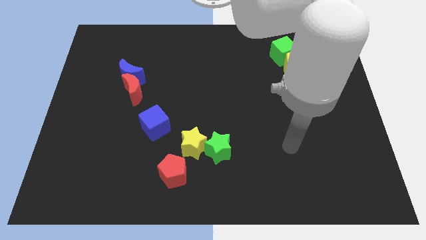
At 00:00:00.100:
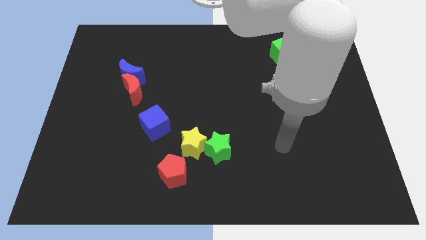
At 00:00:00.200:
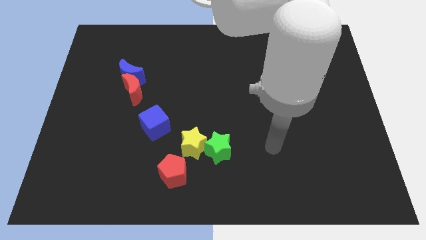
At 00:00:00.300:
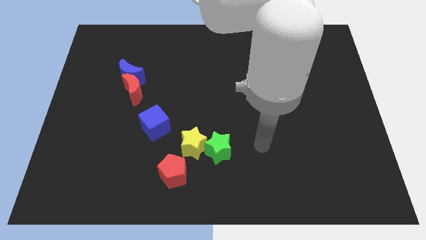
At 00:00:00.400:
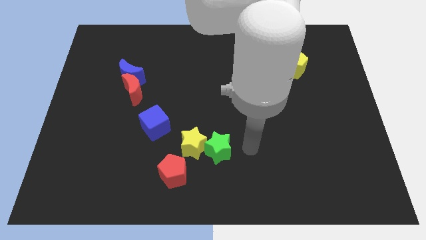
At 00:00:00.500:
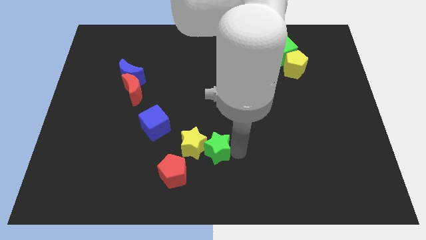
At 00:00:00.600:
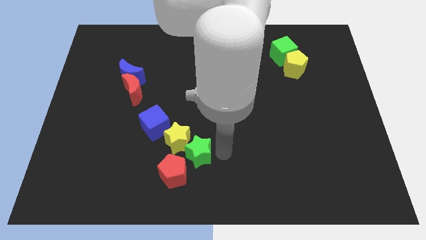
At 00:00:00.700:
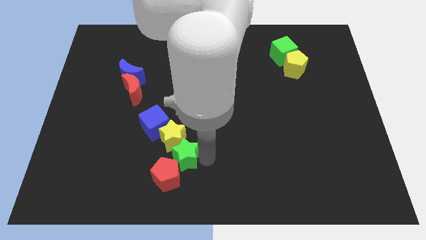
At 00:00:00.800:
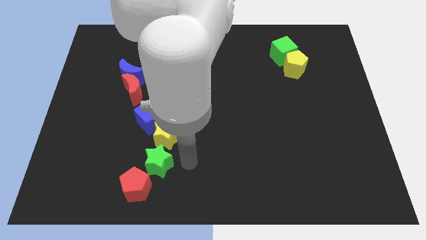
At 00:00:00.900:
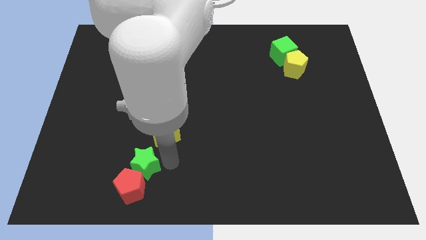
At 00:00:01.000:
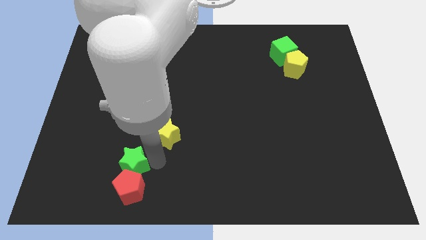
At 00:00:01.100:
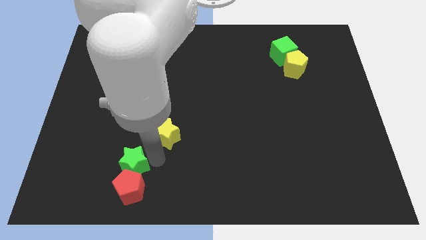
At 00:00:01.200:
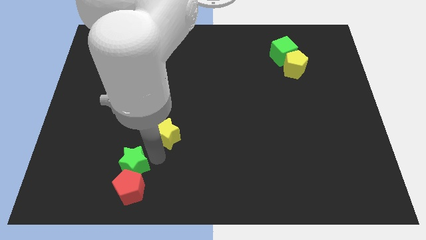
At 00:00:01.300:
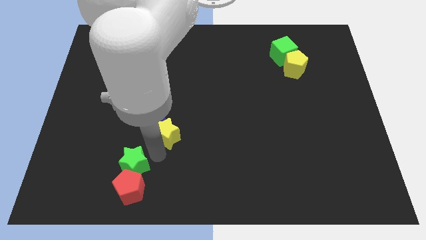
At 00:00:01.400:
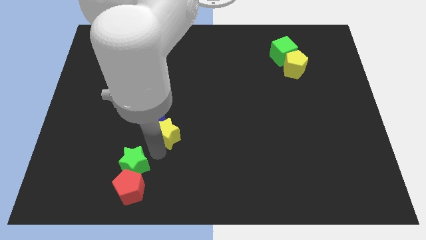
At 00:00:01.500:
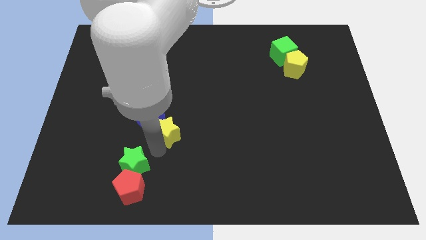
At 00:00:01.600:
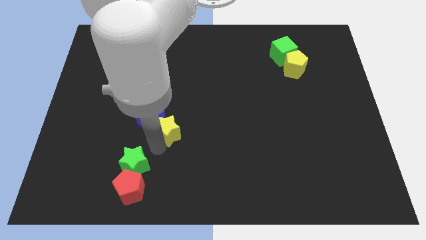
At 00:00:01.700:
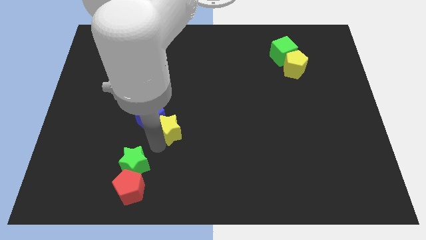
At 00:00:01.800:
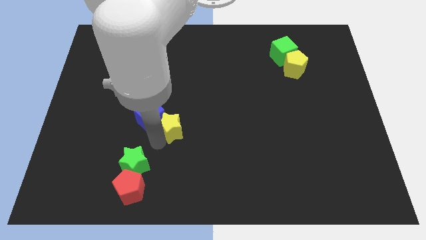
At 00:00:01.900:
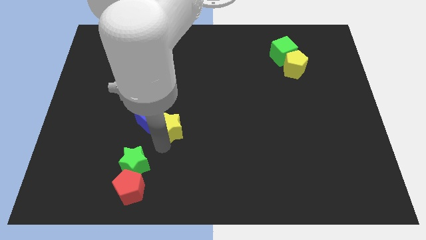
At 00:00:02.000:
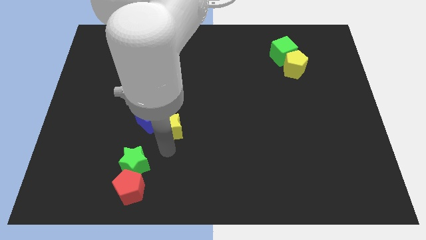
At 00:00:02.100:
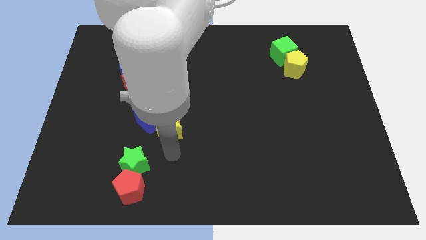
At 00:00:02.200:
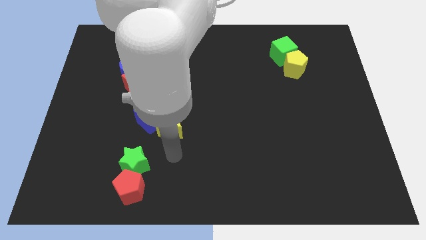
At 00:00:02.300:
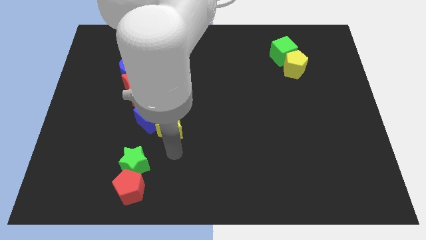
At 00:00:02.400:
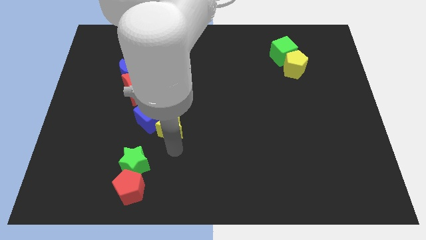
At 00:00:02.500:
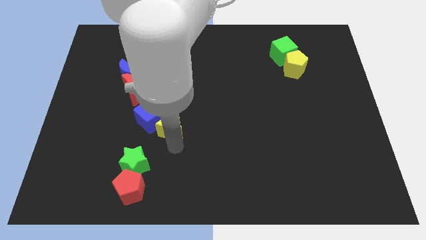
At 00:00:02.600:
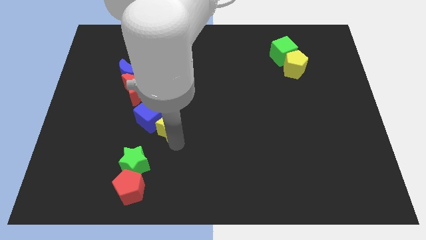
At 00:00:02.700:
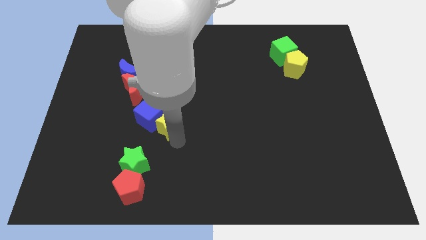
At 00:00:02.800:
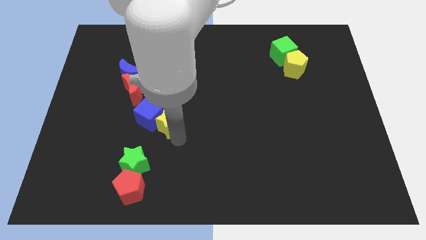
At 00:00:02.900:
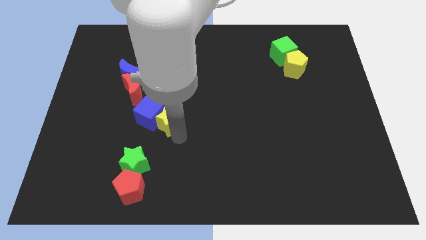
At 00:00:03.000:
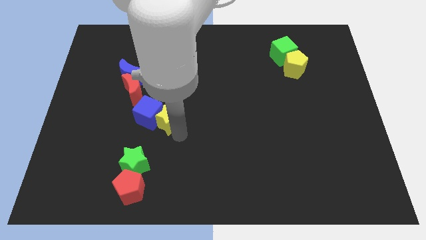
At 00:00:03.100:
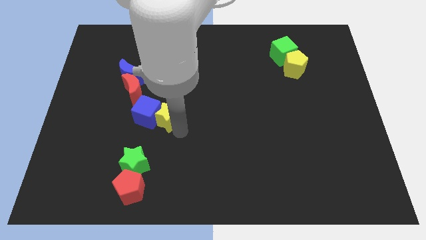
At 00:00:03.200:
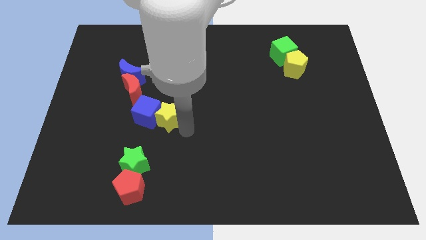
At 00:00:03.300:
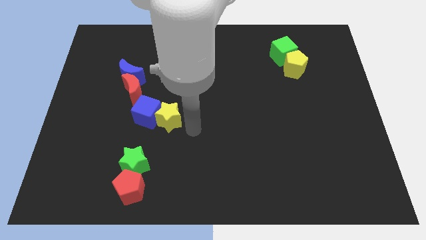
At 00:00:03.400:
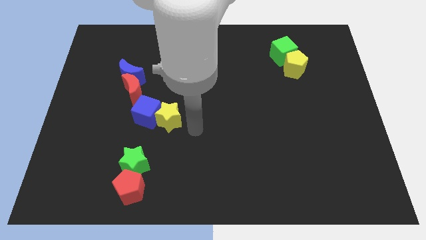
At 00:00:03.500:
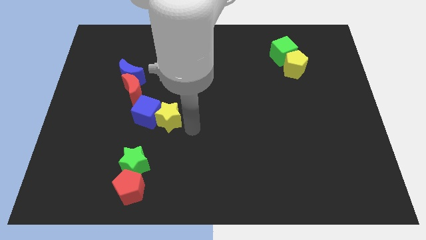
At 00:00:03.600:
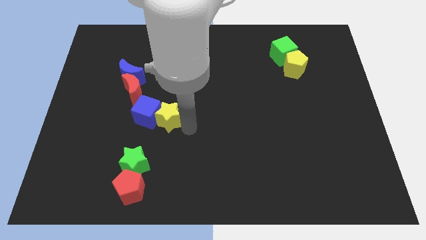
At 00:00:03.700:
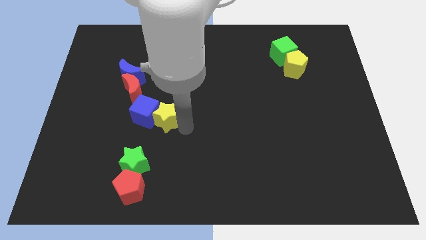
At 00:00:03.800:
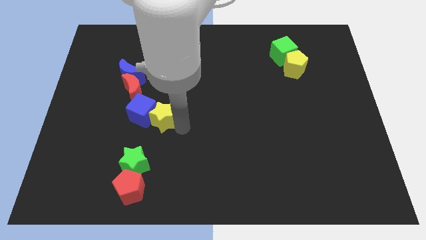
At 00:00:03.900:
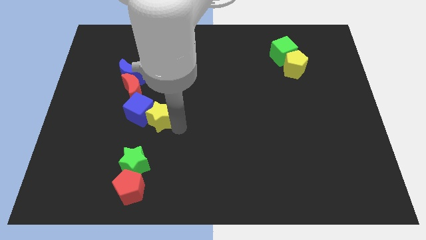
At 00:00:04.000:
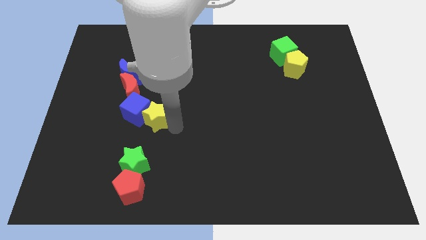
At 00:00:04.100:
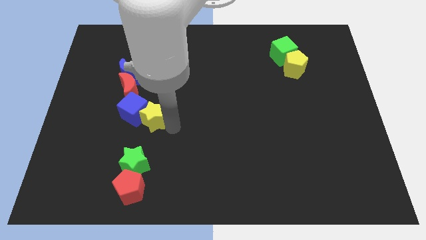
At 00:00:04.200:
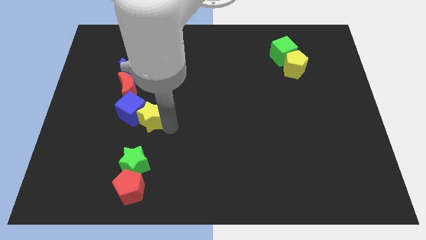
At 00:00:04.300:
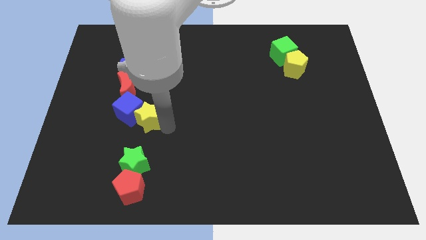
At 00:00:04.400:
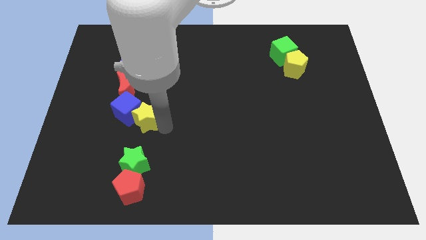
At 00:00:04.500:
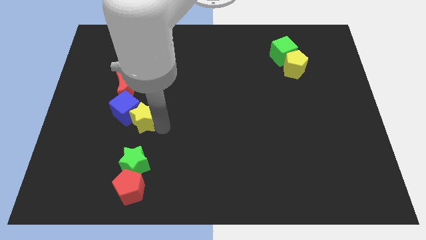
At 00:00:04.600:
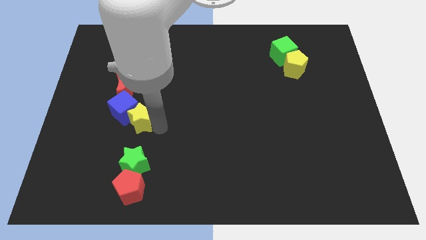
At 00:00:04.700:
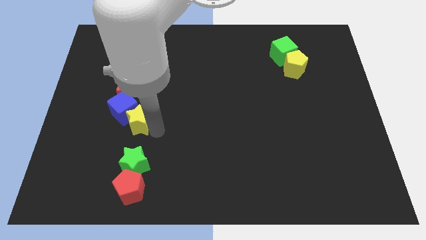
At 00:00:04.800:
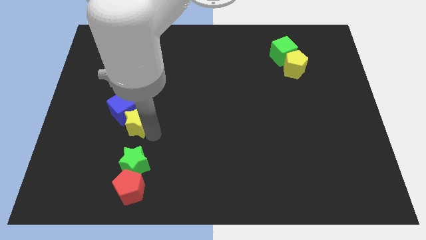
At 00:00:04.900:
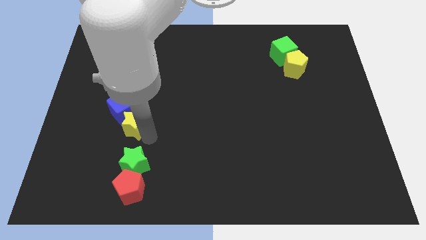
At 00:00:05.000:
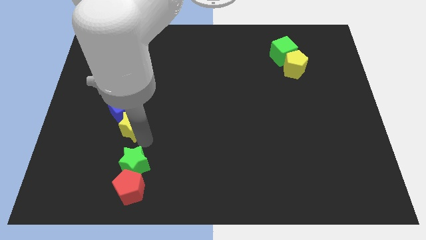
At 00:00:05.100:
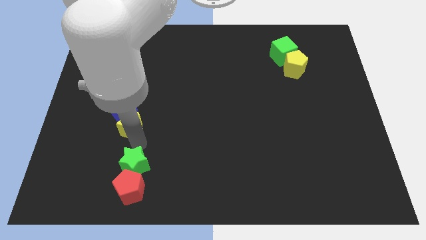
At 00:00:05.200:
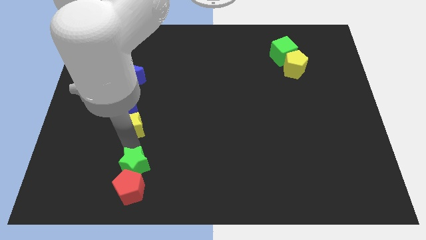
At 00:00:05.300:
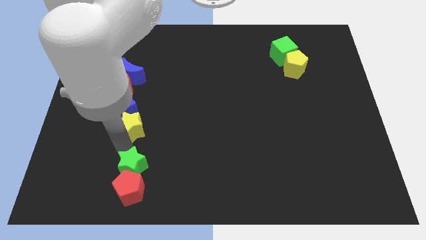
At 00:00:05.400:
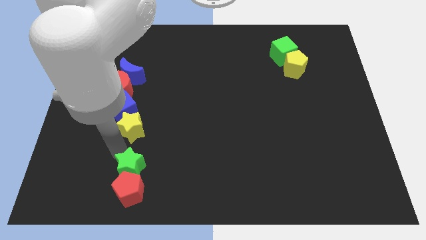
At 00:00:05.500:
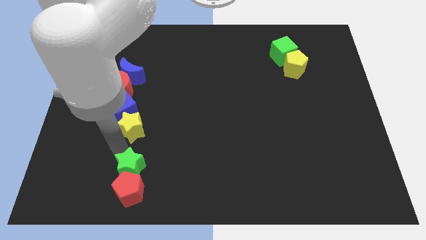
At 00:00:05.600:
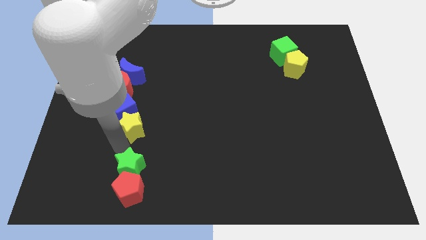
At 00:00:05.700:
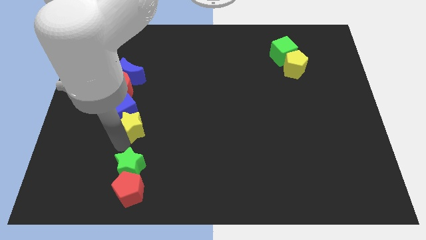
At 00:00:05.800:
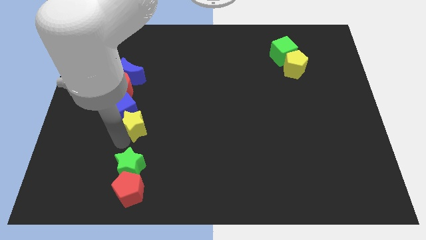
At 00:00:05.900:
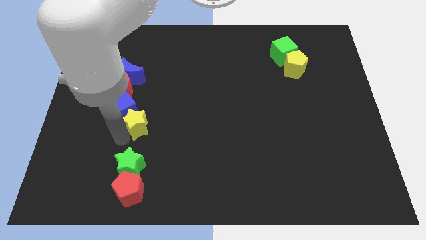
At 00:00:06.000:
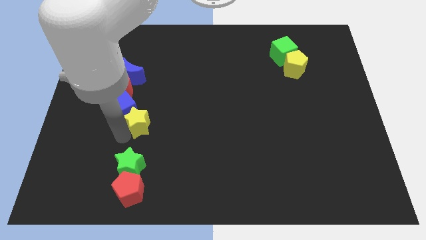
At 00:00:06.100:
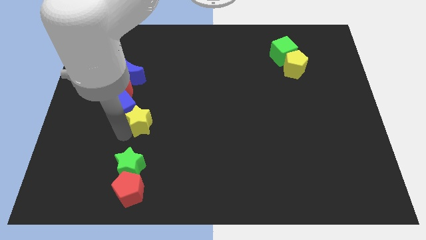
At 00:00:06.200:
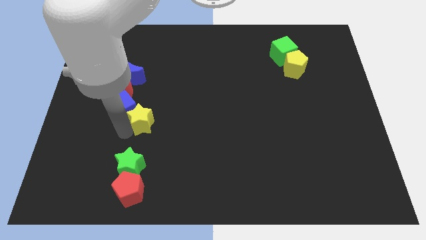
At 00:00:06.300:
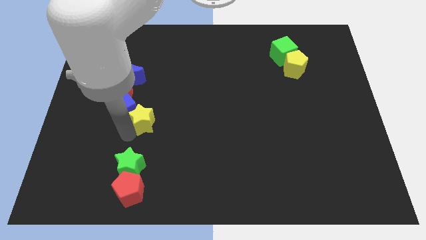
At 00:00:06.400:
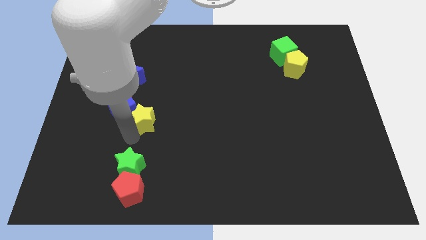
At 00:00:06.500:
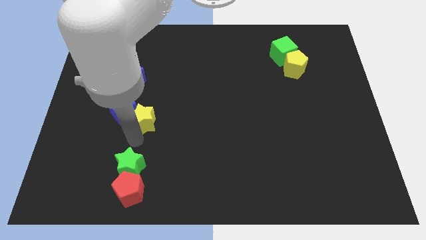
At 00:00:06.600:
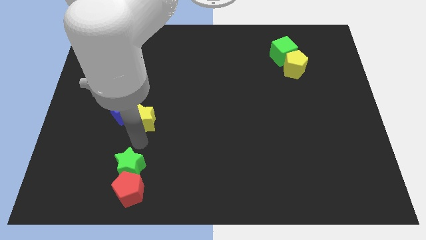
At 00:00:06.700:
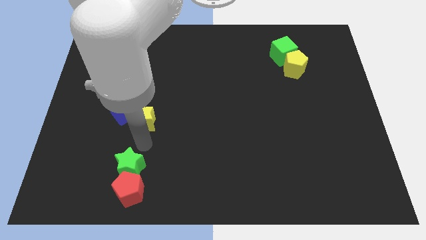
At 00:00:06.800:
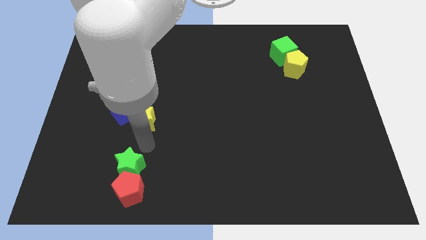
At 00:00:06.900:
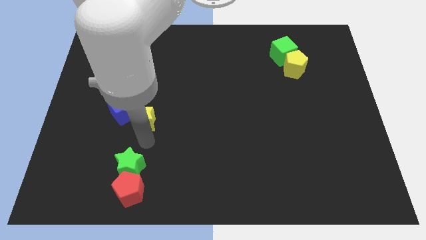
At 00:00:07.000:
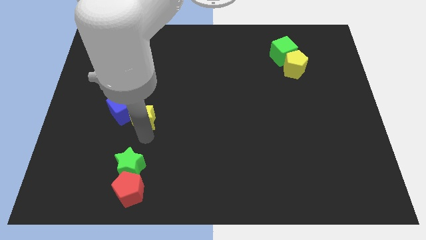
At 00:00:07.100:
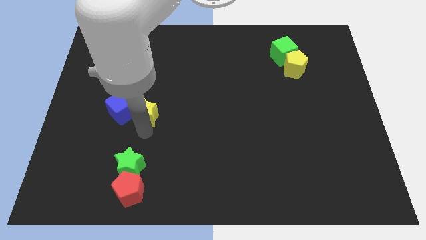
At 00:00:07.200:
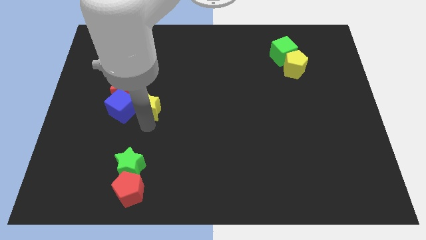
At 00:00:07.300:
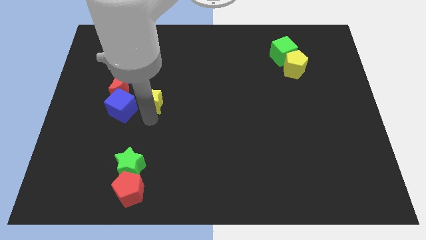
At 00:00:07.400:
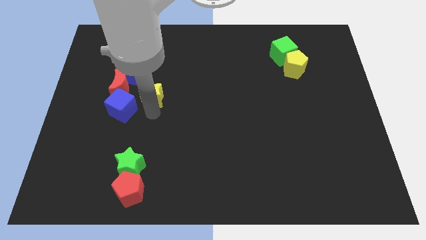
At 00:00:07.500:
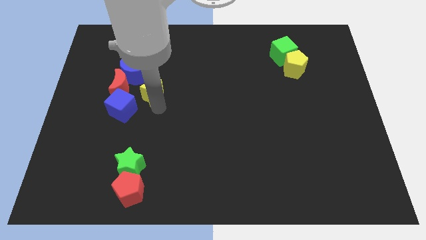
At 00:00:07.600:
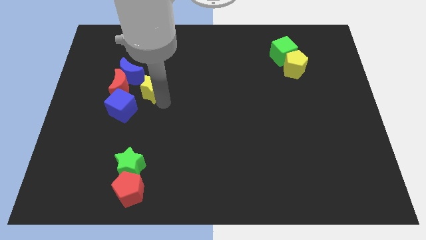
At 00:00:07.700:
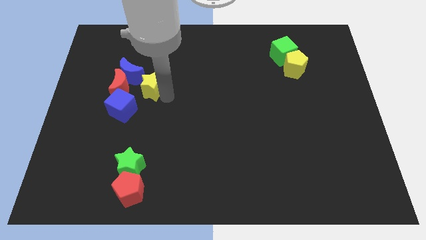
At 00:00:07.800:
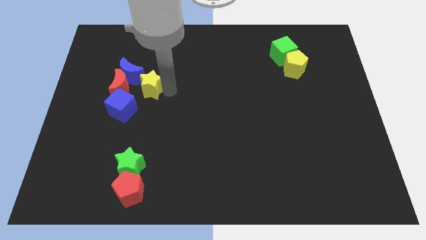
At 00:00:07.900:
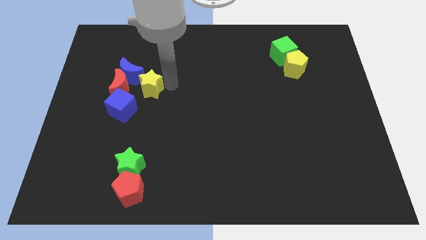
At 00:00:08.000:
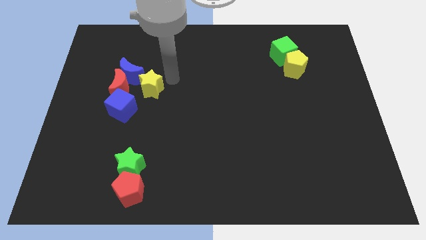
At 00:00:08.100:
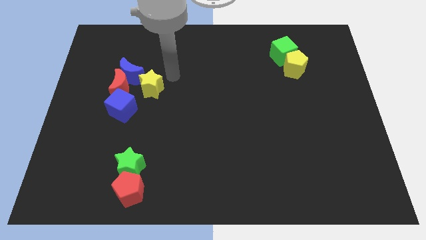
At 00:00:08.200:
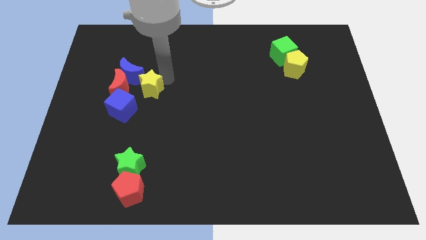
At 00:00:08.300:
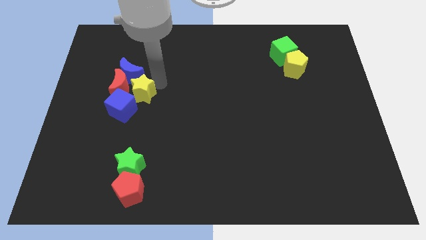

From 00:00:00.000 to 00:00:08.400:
move the yellow star upwards and to the left diagonally
